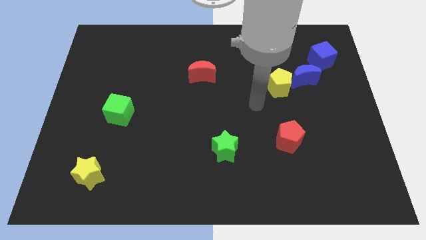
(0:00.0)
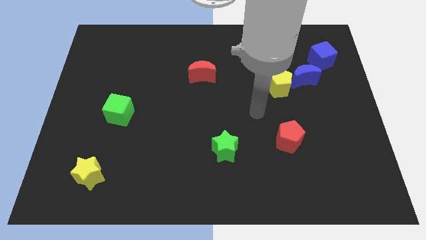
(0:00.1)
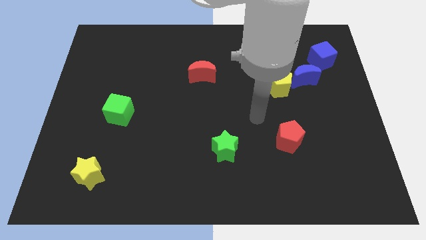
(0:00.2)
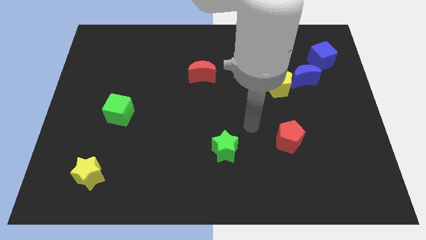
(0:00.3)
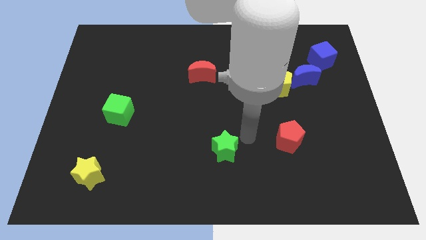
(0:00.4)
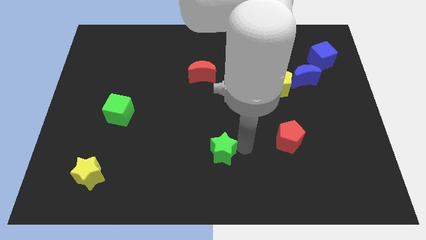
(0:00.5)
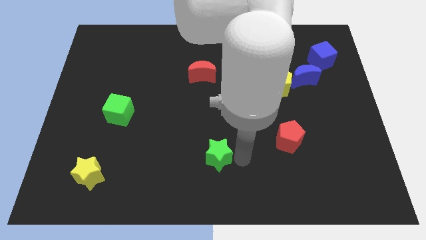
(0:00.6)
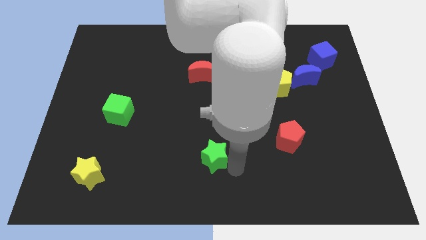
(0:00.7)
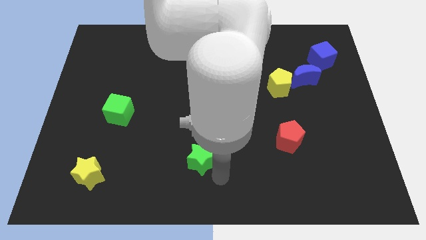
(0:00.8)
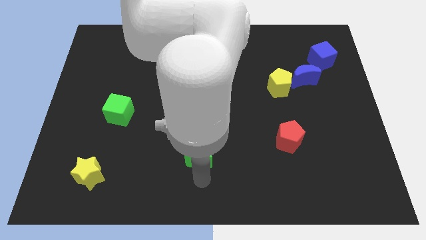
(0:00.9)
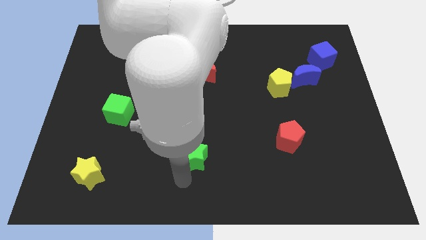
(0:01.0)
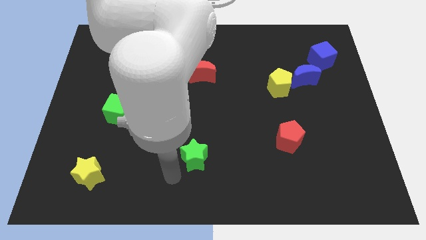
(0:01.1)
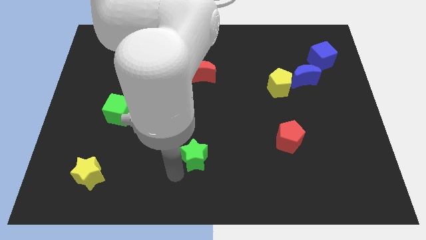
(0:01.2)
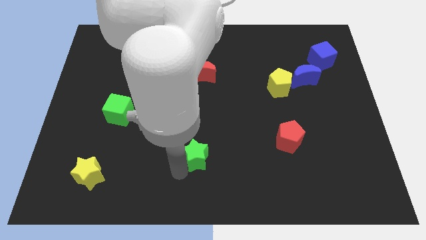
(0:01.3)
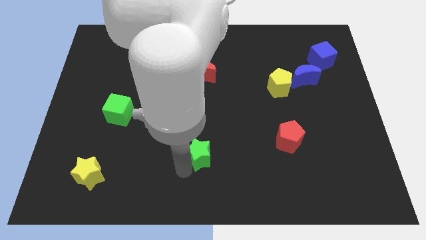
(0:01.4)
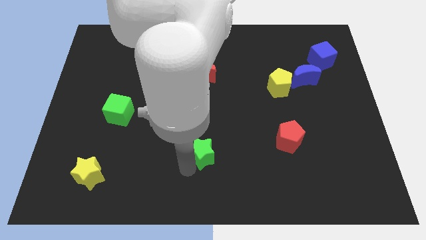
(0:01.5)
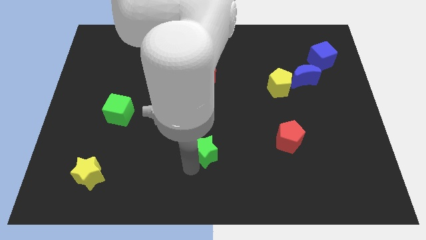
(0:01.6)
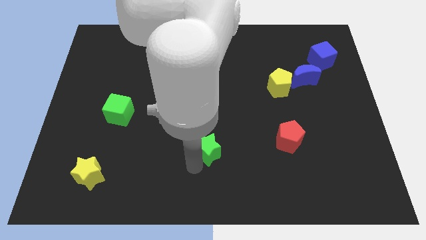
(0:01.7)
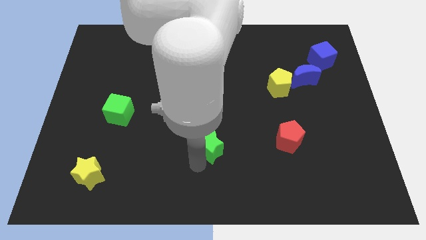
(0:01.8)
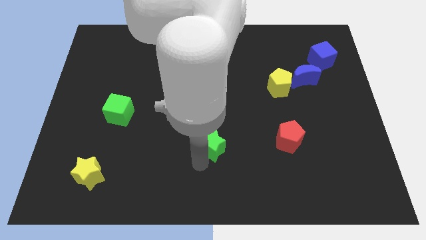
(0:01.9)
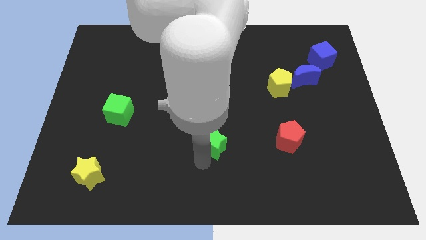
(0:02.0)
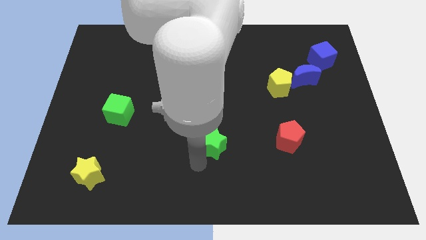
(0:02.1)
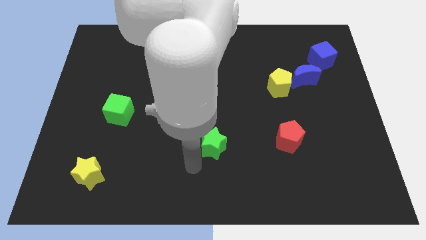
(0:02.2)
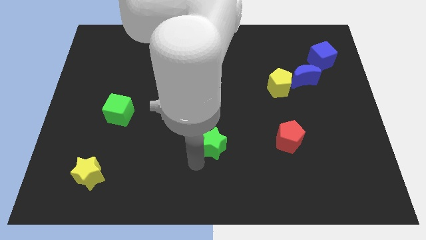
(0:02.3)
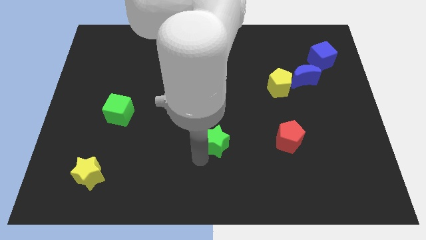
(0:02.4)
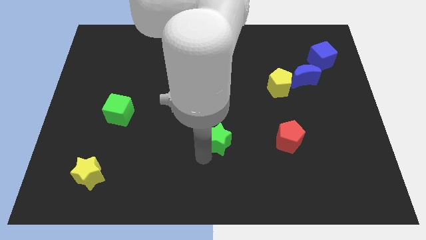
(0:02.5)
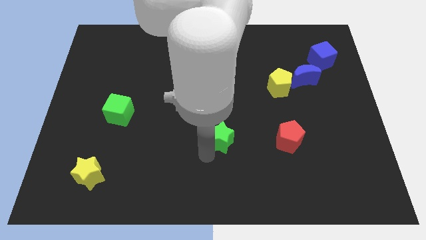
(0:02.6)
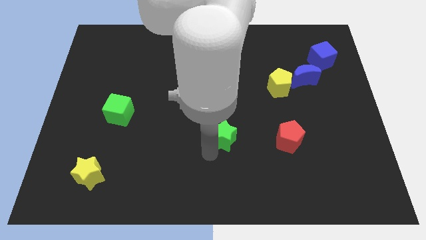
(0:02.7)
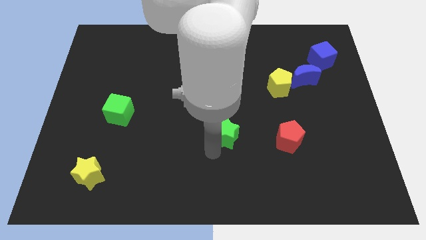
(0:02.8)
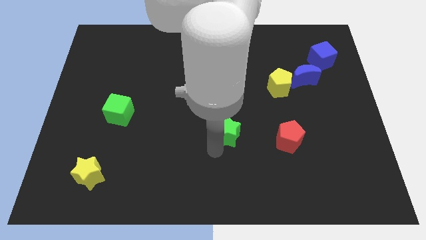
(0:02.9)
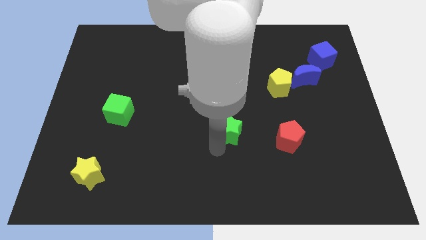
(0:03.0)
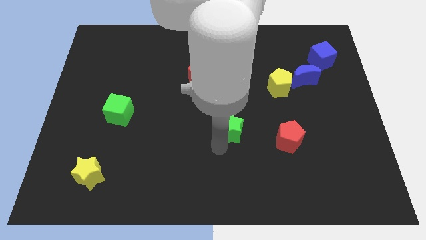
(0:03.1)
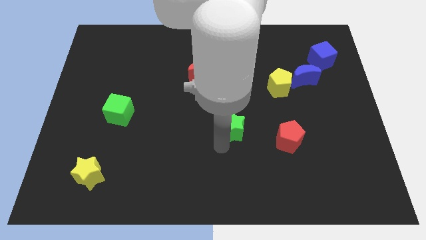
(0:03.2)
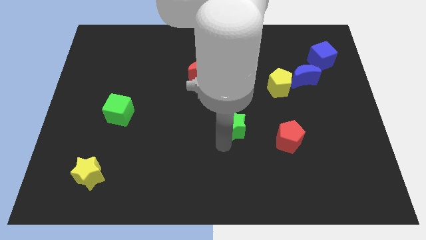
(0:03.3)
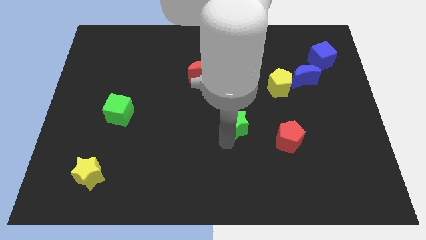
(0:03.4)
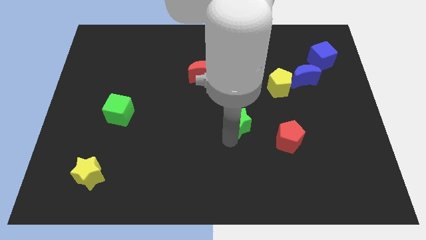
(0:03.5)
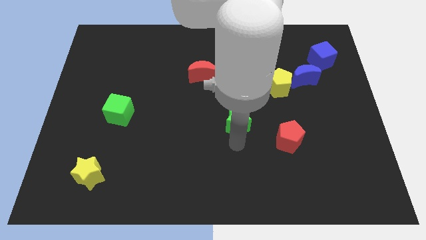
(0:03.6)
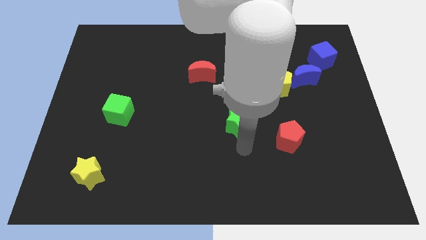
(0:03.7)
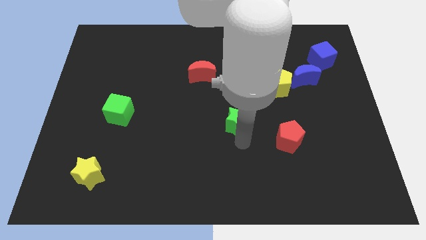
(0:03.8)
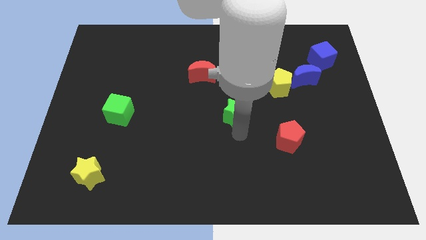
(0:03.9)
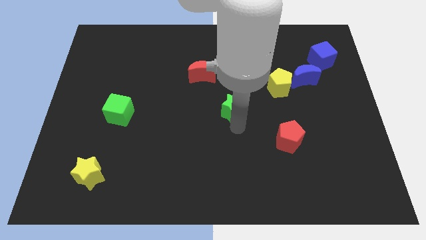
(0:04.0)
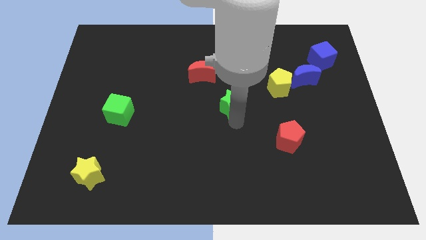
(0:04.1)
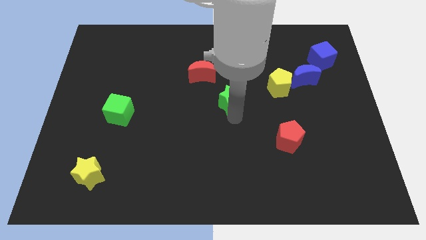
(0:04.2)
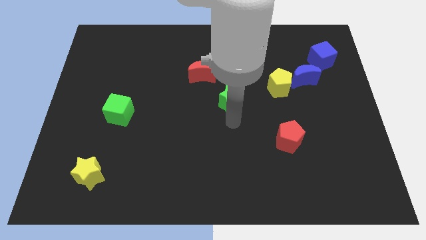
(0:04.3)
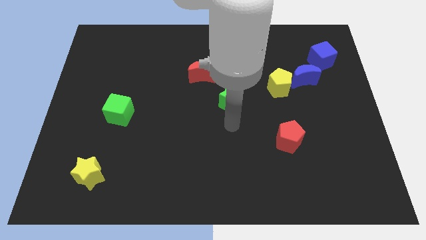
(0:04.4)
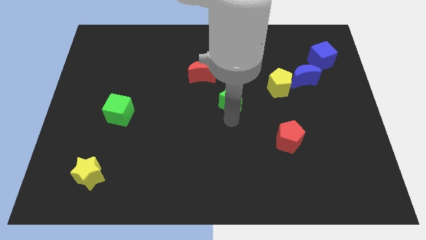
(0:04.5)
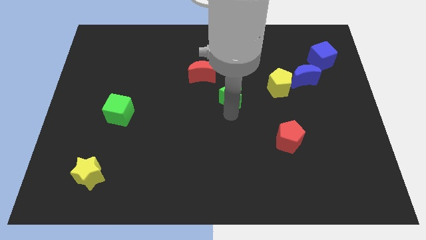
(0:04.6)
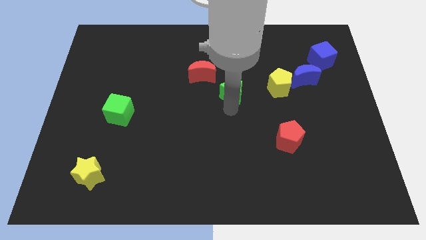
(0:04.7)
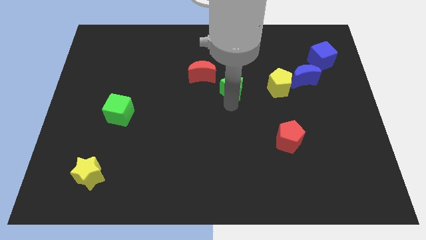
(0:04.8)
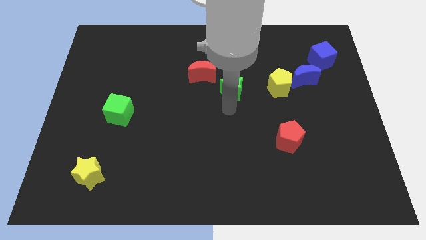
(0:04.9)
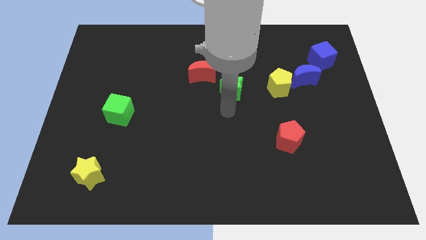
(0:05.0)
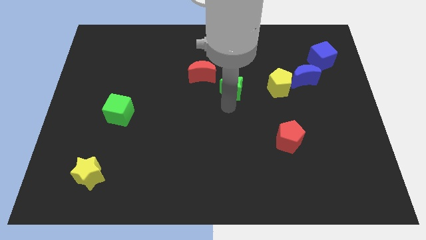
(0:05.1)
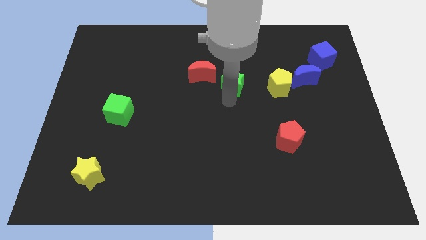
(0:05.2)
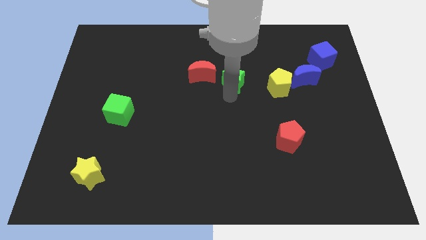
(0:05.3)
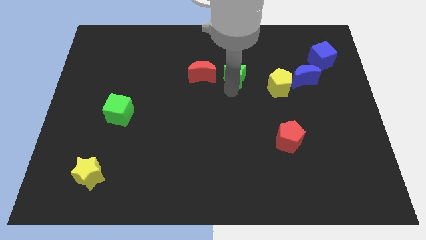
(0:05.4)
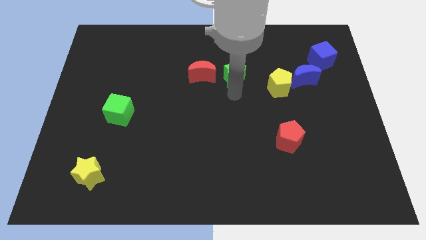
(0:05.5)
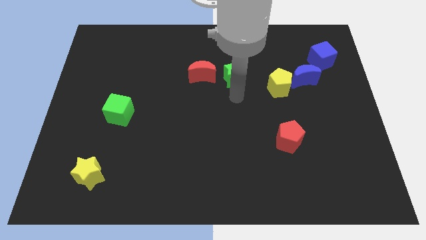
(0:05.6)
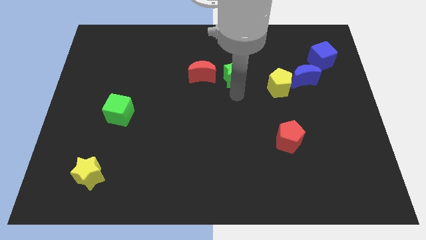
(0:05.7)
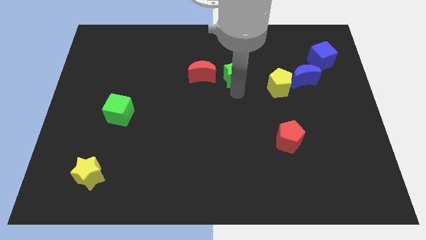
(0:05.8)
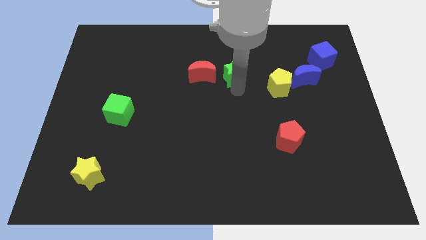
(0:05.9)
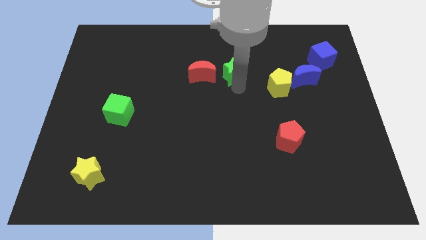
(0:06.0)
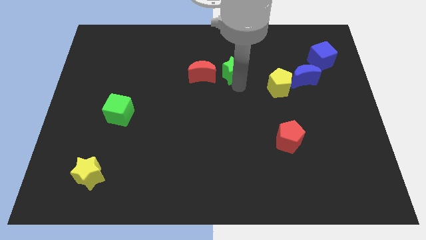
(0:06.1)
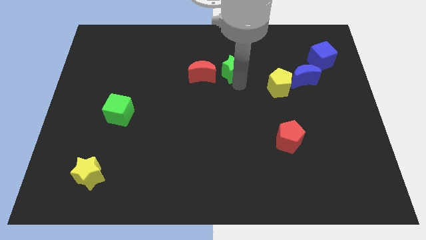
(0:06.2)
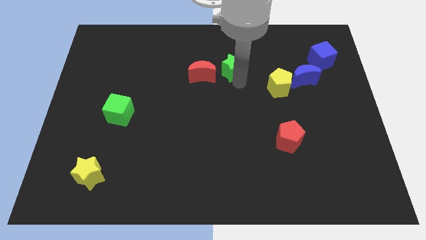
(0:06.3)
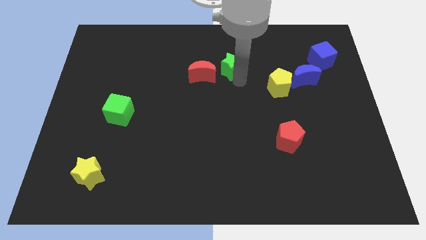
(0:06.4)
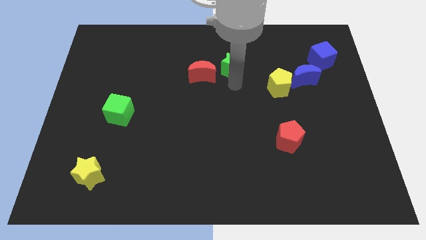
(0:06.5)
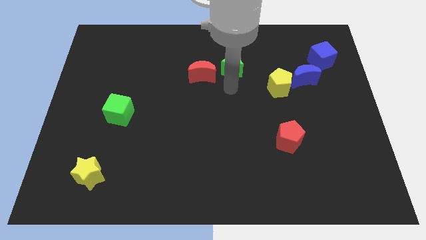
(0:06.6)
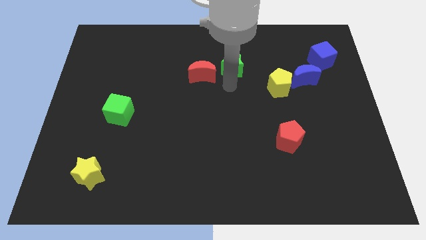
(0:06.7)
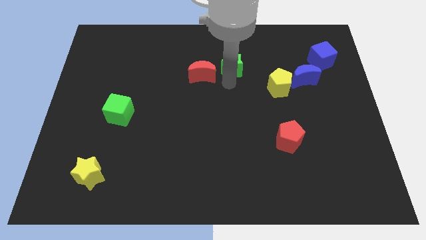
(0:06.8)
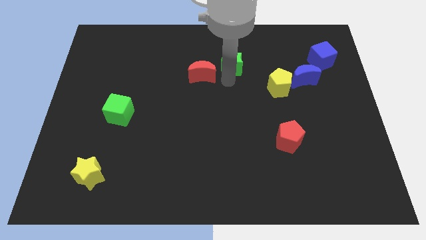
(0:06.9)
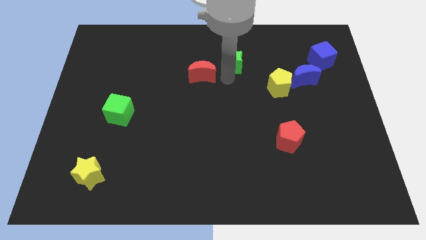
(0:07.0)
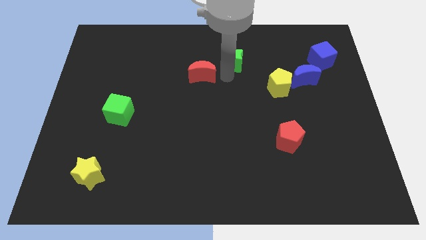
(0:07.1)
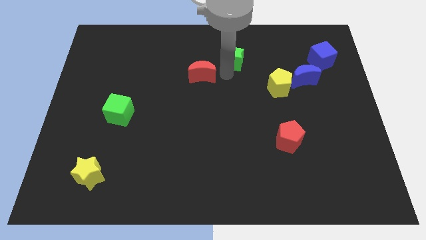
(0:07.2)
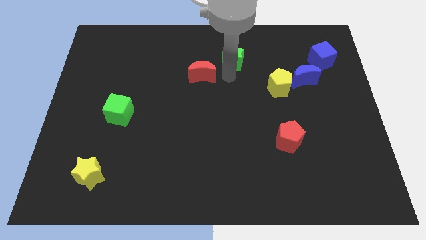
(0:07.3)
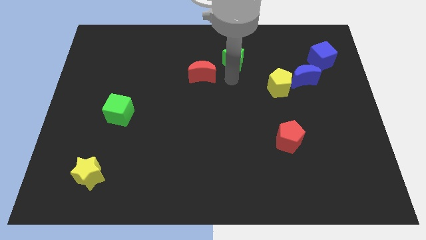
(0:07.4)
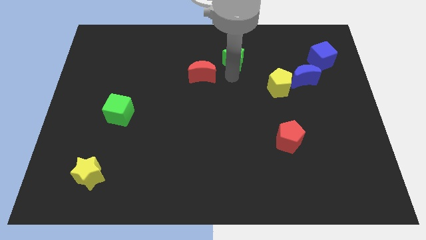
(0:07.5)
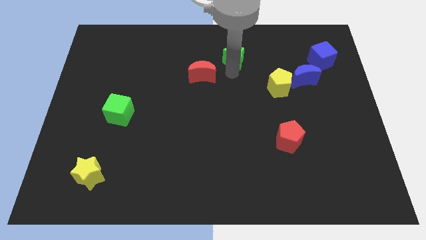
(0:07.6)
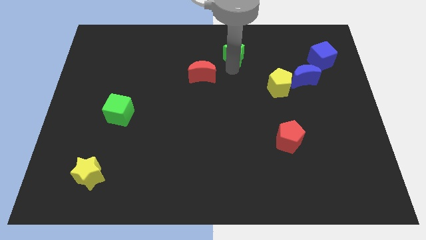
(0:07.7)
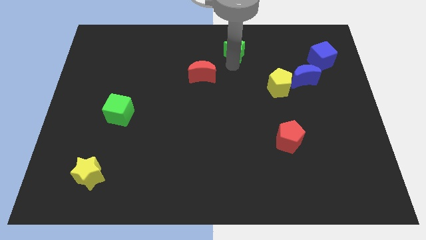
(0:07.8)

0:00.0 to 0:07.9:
put the green star to the towards your base
